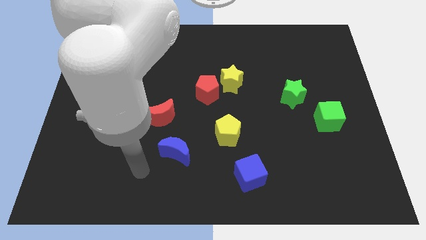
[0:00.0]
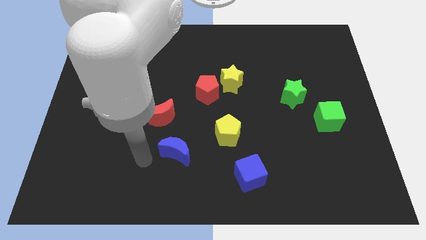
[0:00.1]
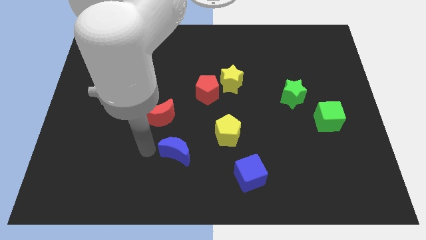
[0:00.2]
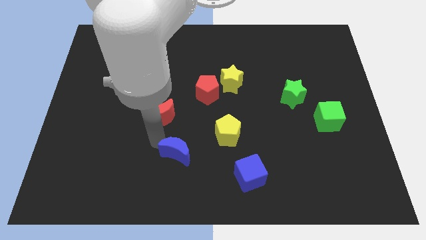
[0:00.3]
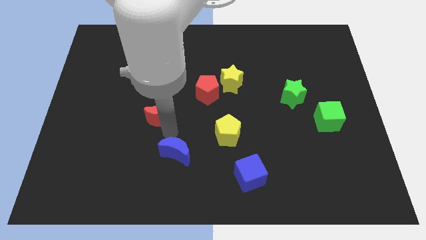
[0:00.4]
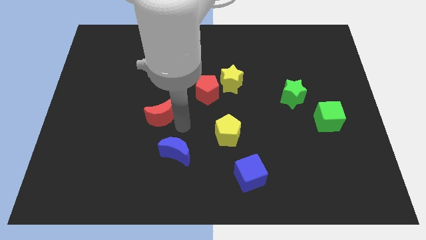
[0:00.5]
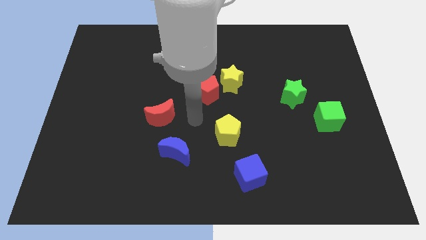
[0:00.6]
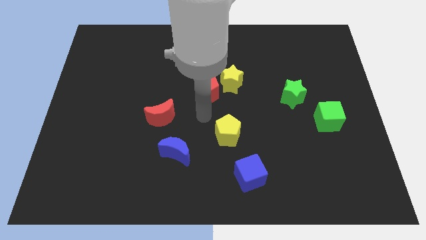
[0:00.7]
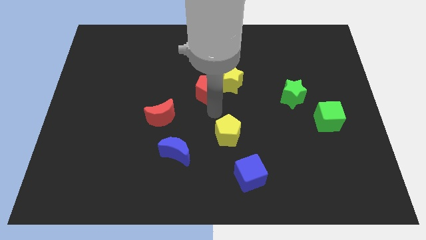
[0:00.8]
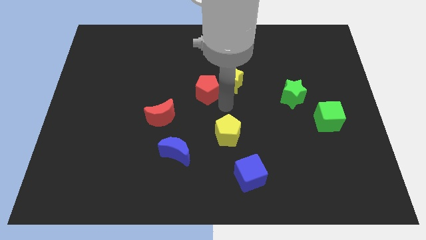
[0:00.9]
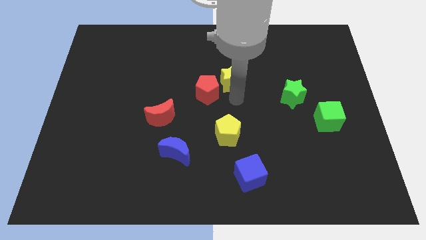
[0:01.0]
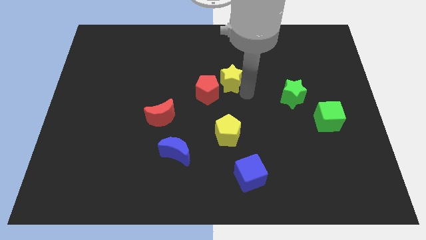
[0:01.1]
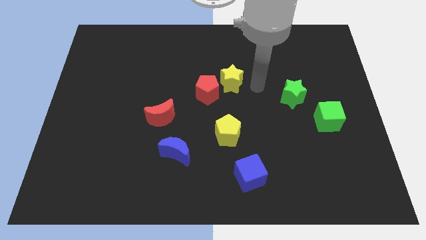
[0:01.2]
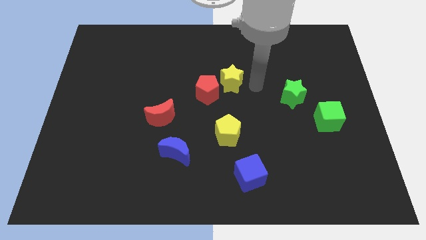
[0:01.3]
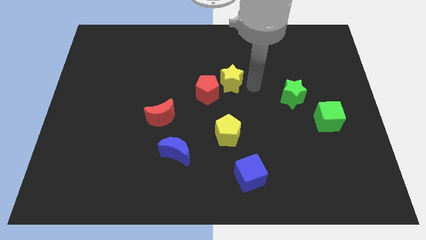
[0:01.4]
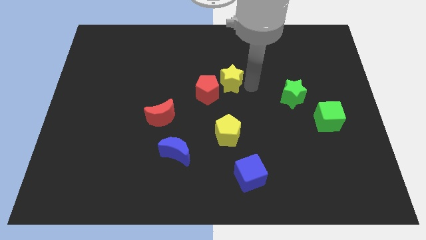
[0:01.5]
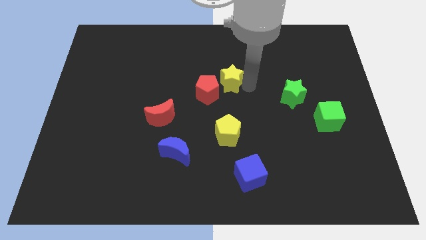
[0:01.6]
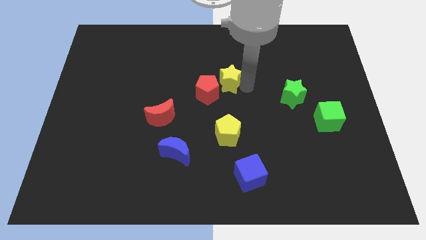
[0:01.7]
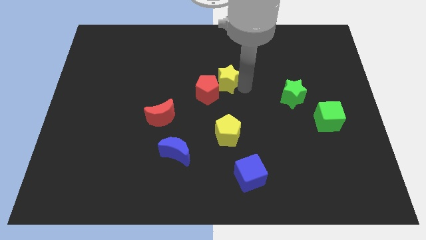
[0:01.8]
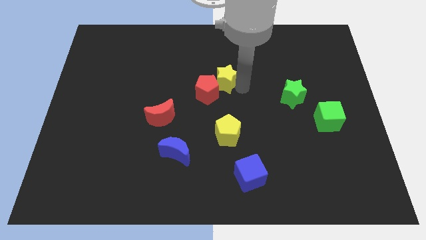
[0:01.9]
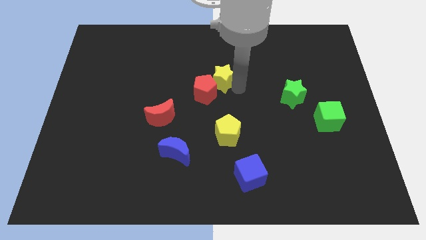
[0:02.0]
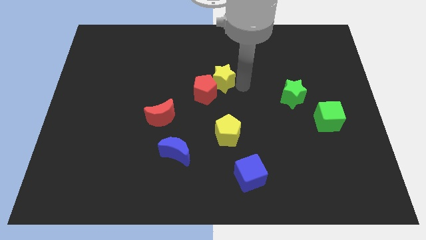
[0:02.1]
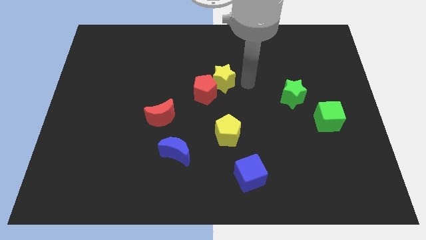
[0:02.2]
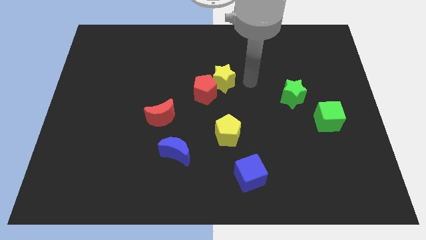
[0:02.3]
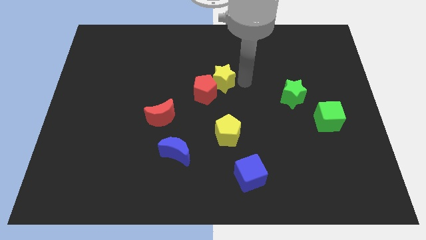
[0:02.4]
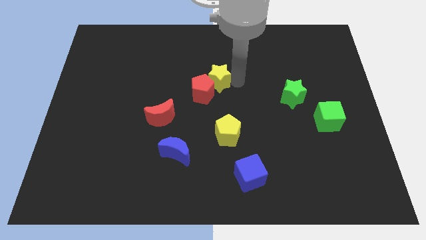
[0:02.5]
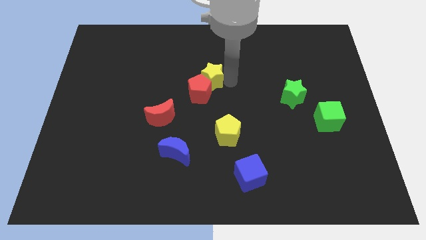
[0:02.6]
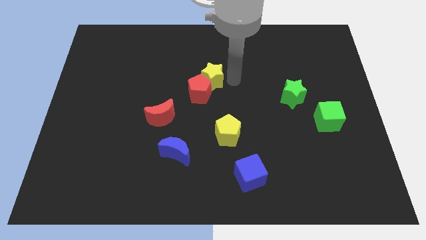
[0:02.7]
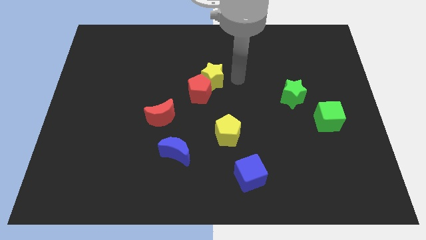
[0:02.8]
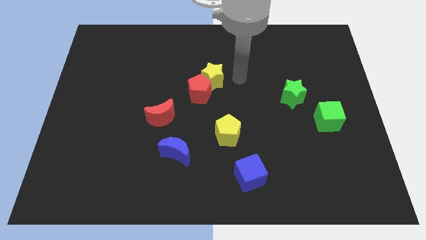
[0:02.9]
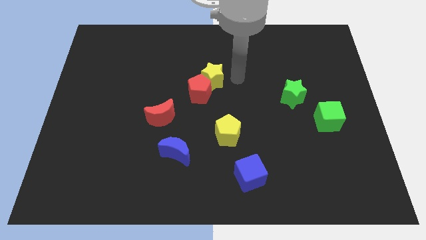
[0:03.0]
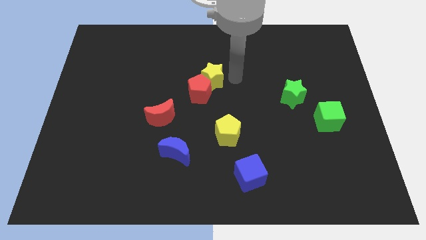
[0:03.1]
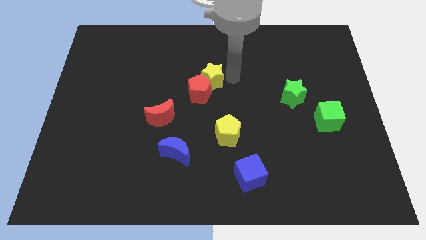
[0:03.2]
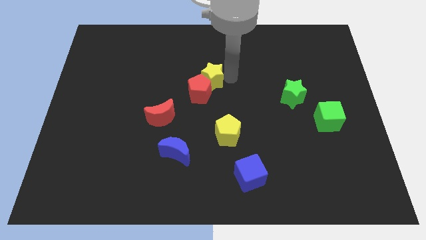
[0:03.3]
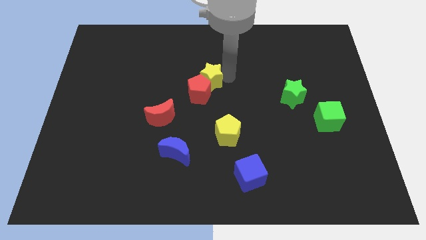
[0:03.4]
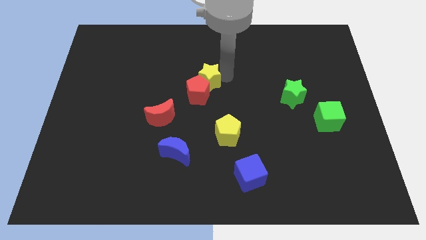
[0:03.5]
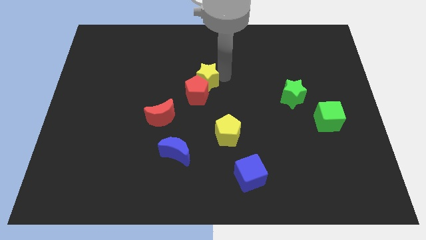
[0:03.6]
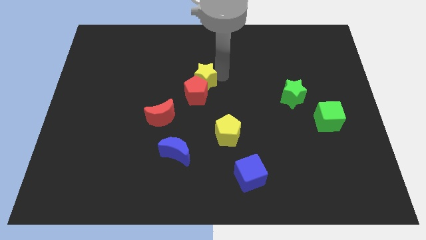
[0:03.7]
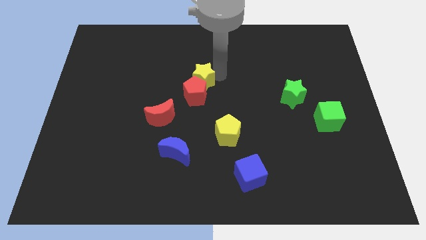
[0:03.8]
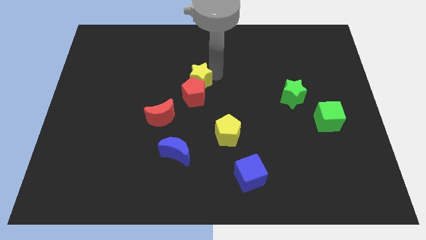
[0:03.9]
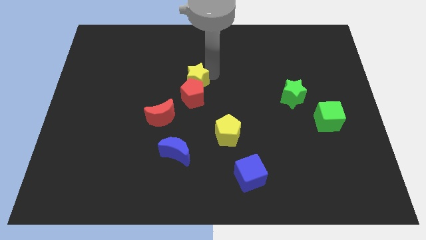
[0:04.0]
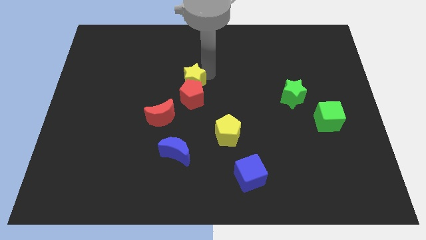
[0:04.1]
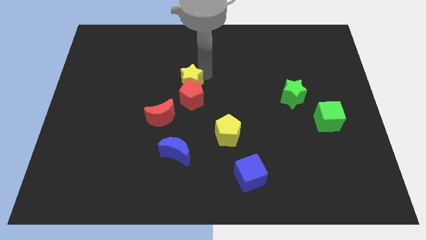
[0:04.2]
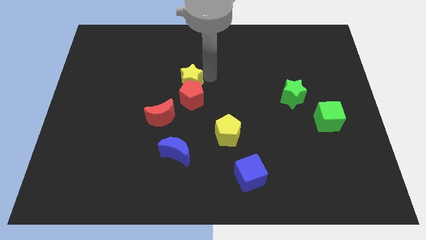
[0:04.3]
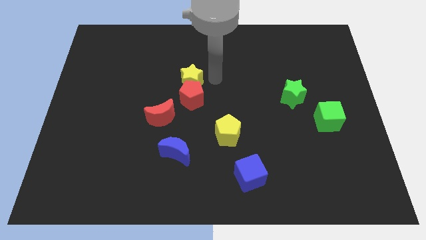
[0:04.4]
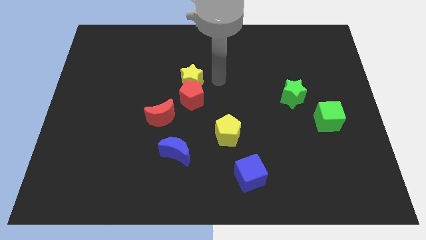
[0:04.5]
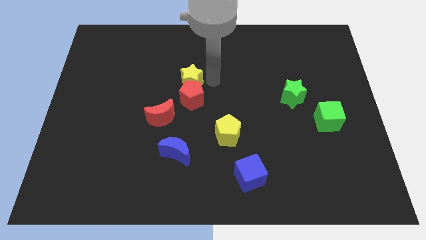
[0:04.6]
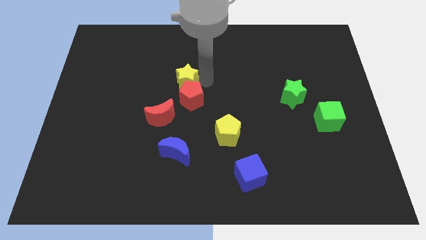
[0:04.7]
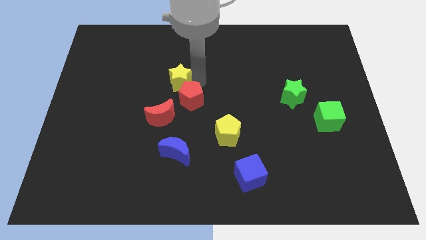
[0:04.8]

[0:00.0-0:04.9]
slide the yellow star above the red moon

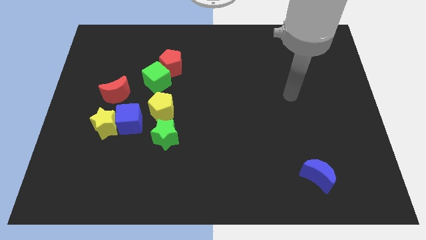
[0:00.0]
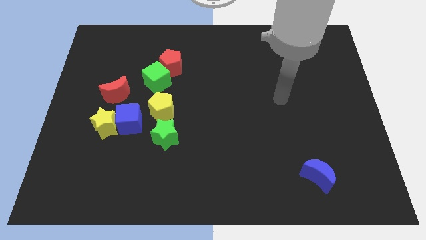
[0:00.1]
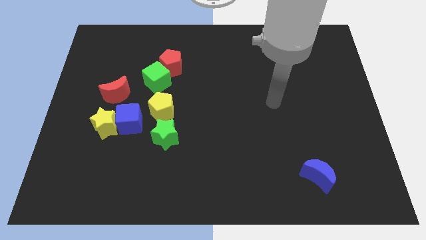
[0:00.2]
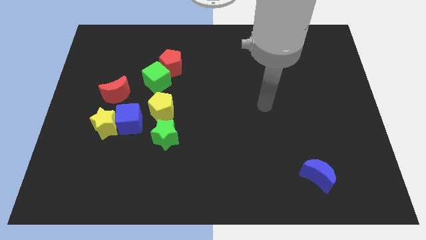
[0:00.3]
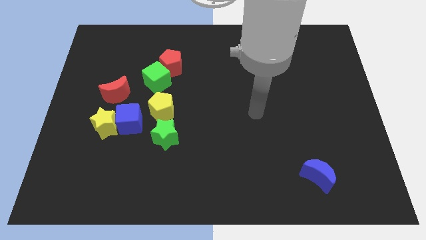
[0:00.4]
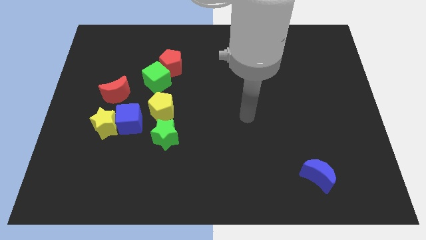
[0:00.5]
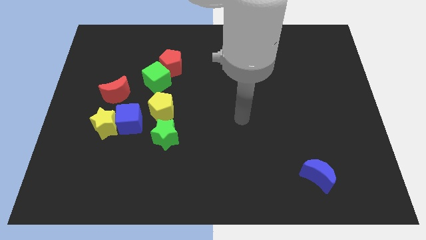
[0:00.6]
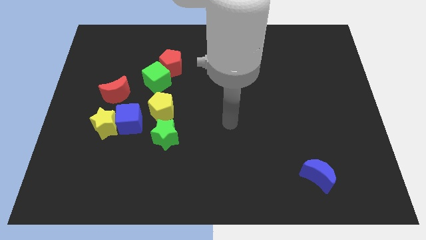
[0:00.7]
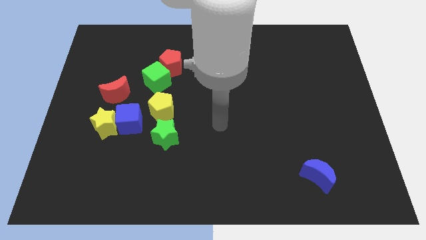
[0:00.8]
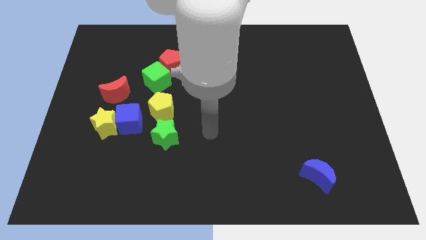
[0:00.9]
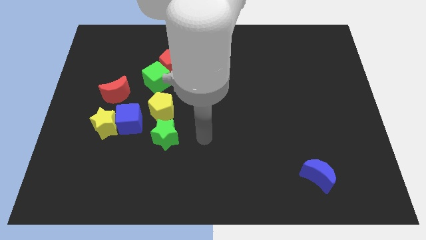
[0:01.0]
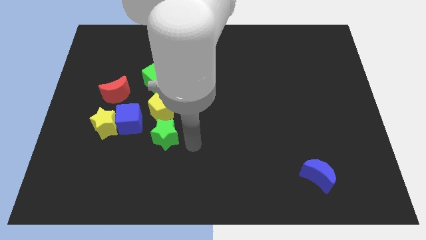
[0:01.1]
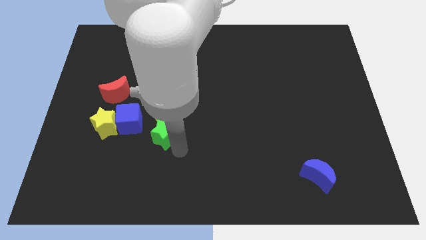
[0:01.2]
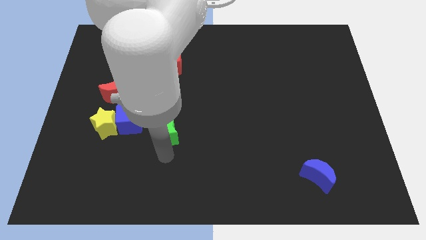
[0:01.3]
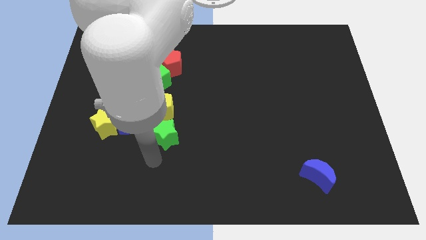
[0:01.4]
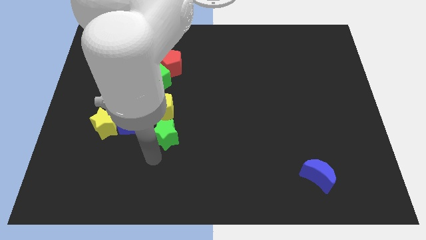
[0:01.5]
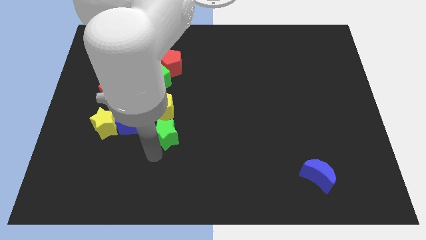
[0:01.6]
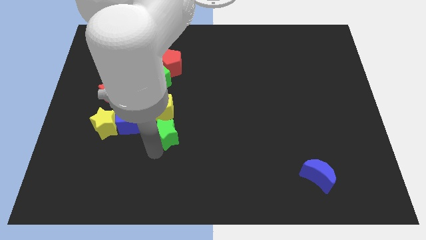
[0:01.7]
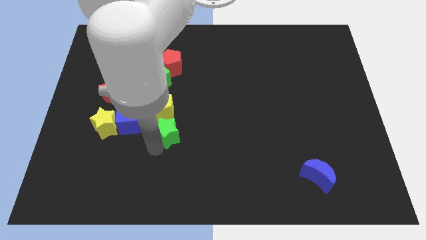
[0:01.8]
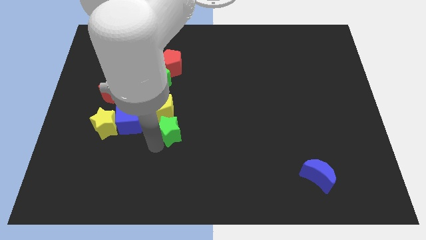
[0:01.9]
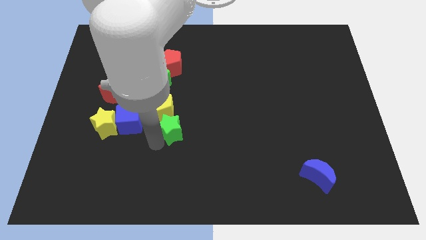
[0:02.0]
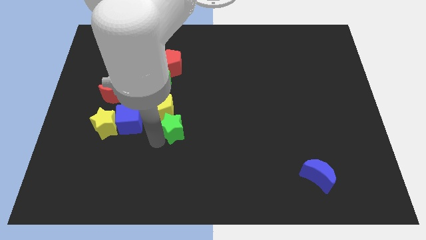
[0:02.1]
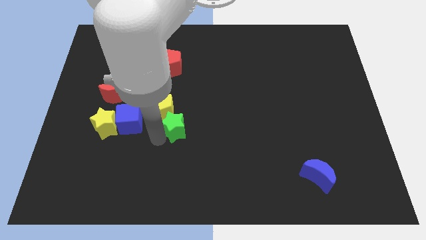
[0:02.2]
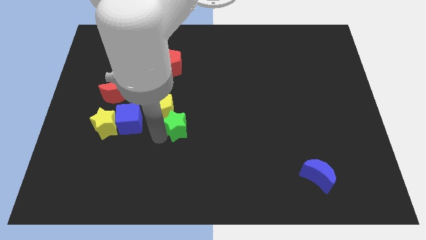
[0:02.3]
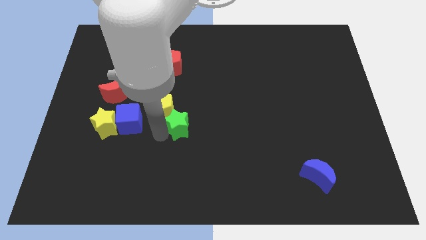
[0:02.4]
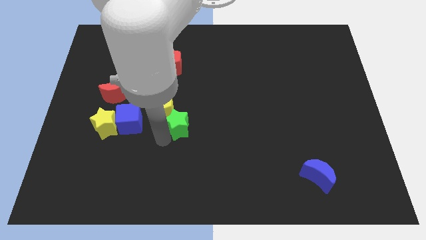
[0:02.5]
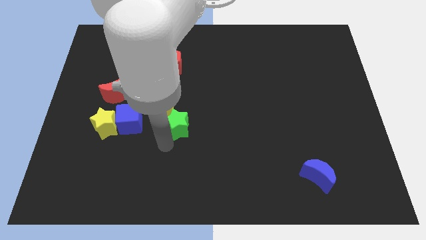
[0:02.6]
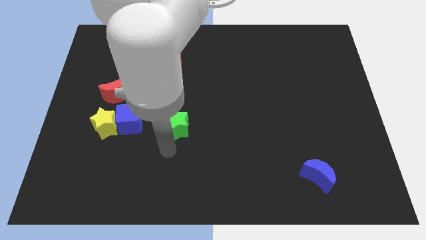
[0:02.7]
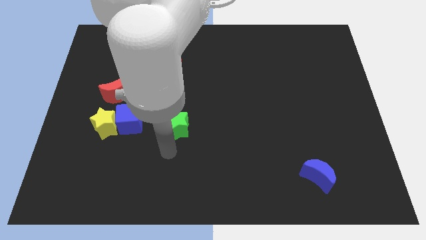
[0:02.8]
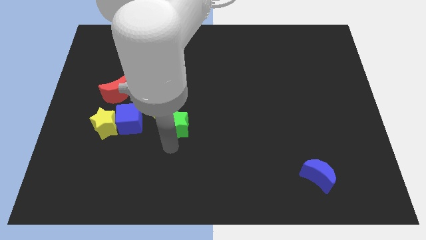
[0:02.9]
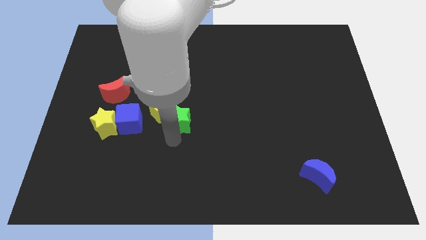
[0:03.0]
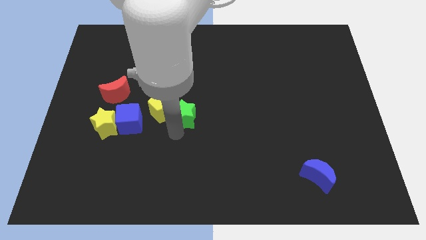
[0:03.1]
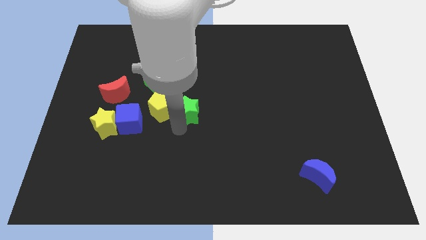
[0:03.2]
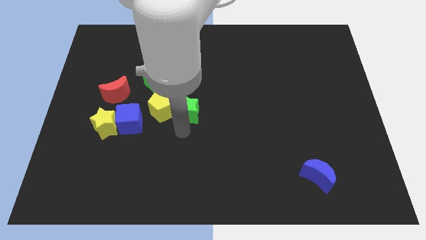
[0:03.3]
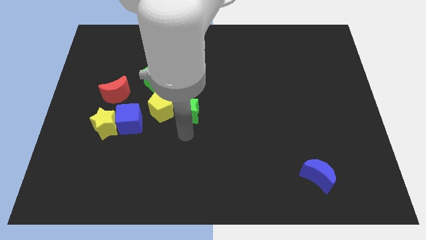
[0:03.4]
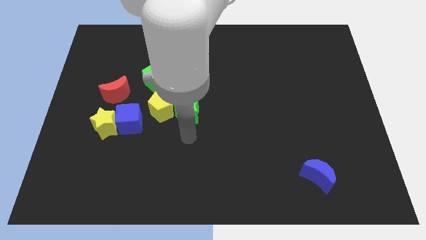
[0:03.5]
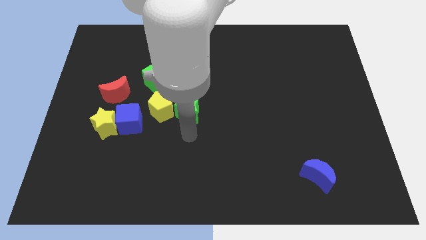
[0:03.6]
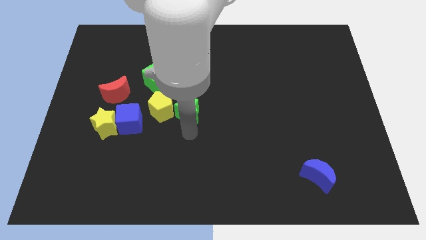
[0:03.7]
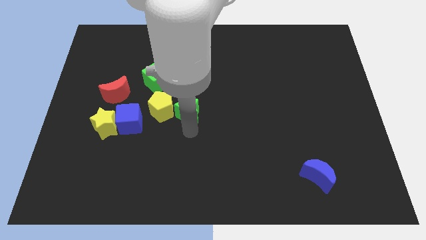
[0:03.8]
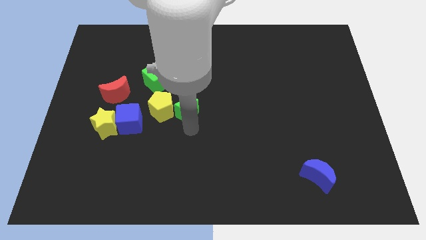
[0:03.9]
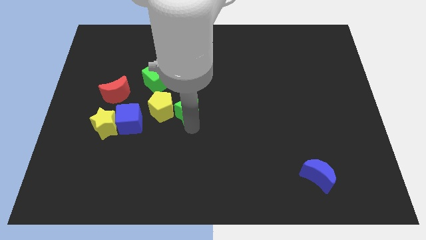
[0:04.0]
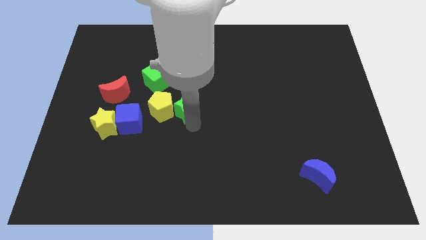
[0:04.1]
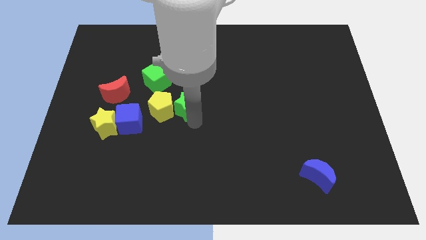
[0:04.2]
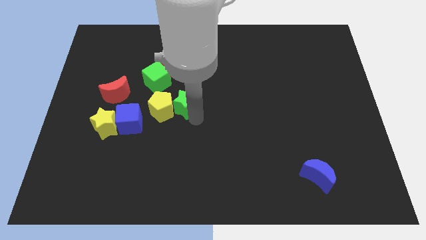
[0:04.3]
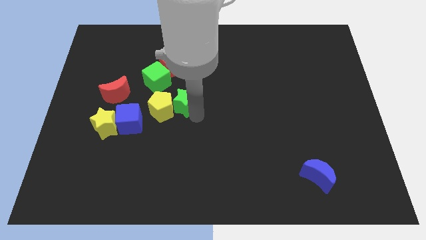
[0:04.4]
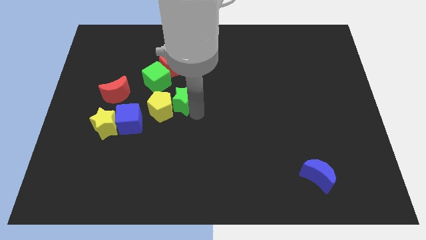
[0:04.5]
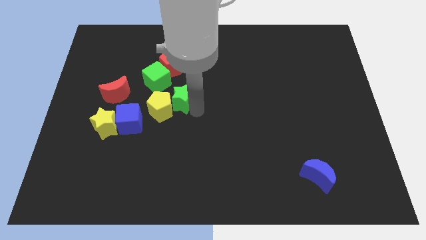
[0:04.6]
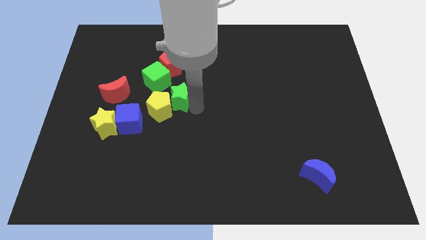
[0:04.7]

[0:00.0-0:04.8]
push the green star just right of the red moon
